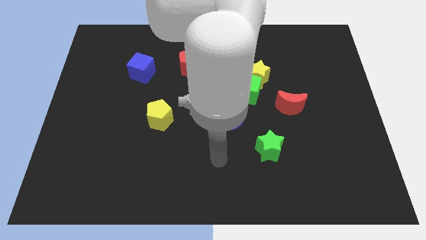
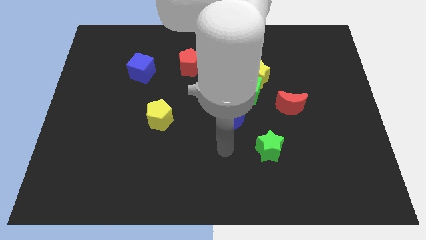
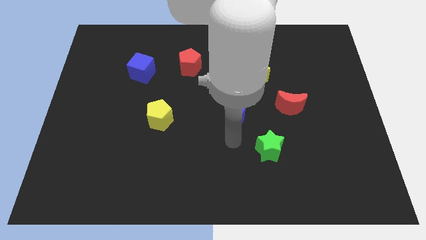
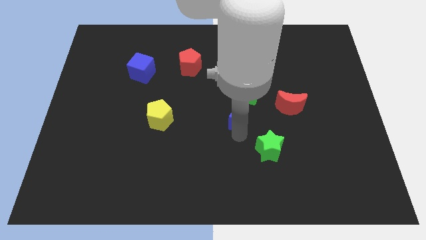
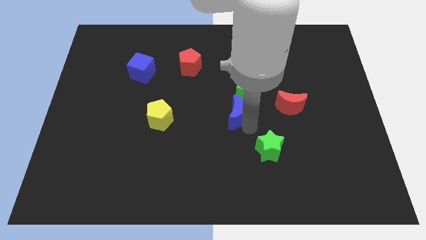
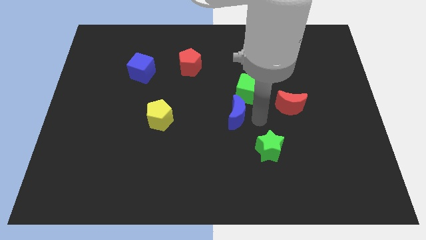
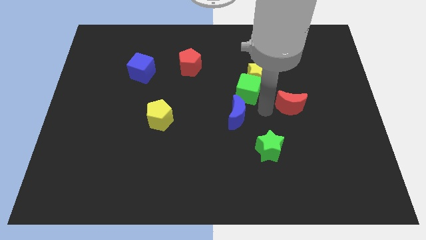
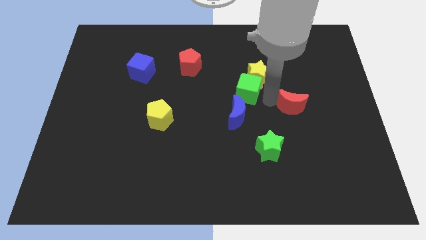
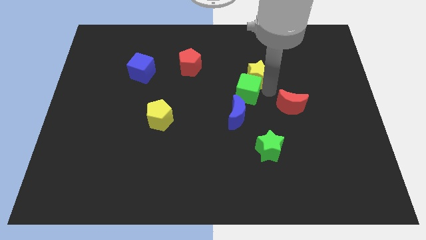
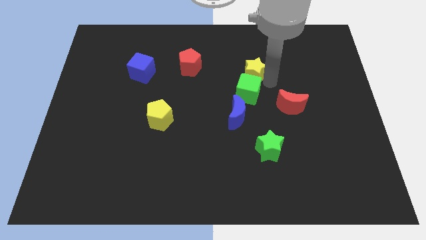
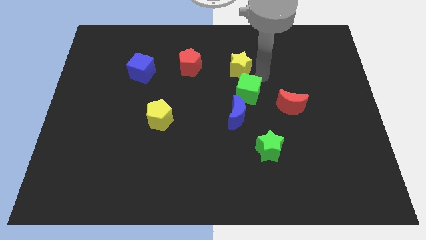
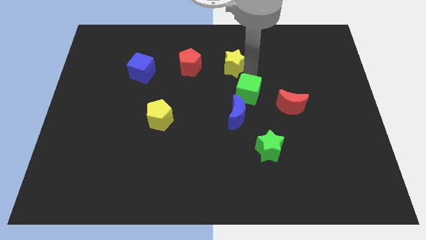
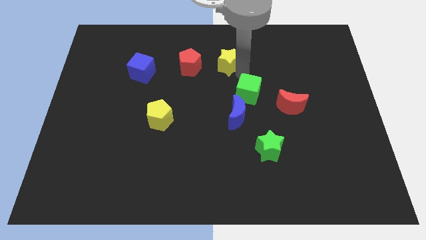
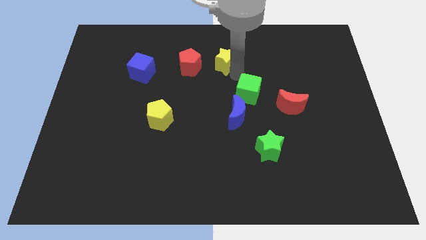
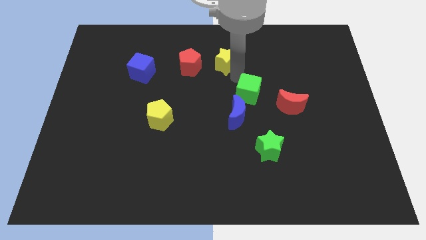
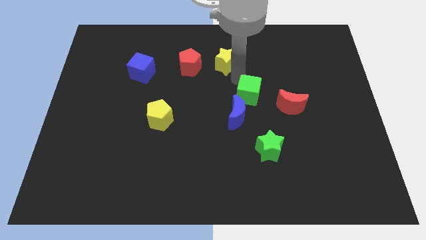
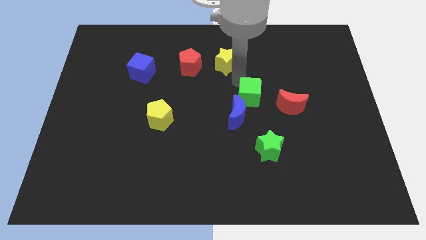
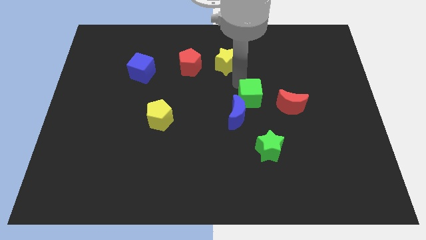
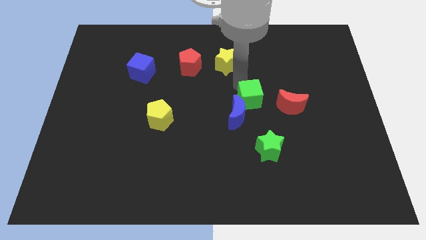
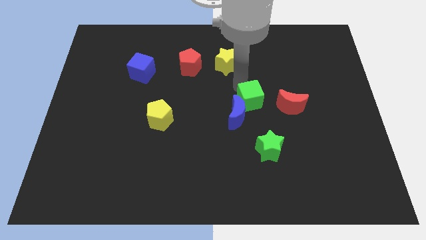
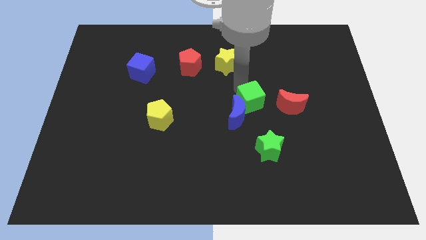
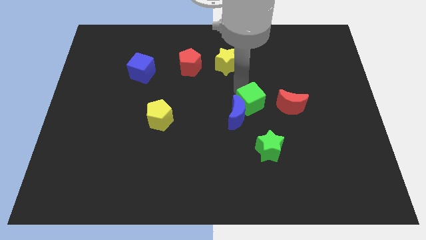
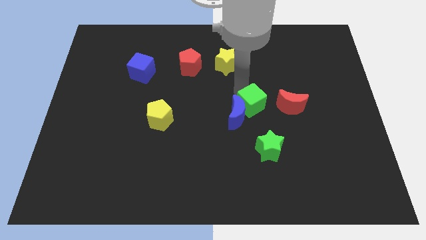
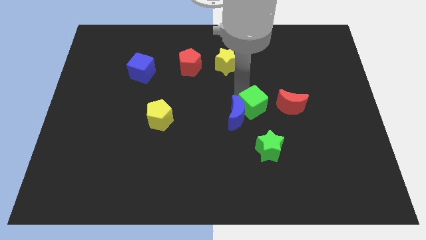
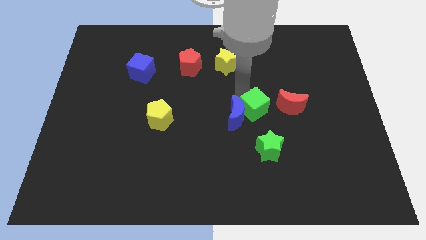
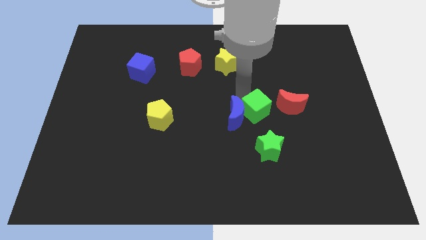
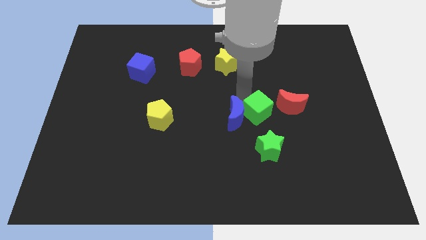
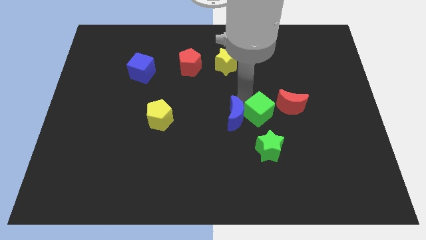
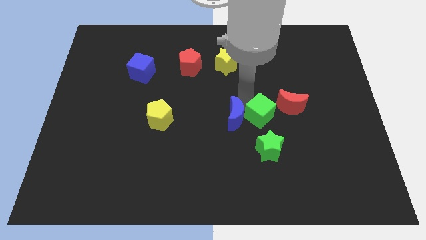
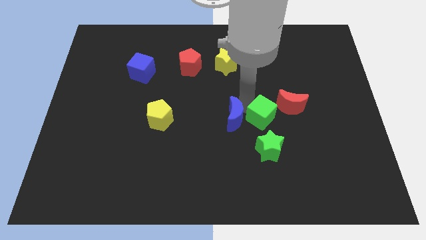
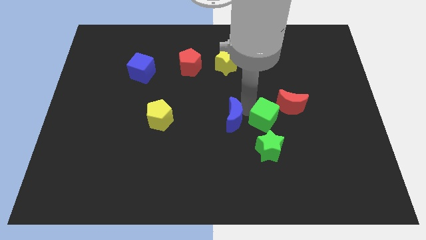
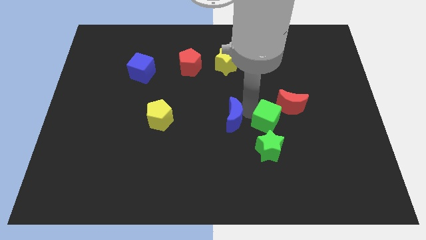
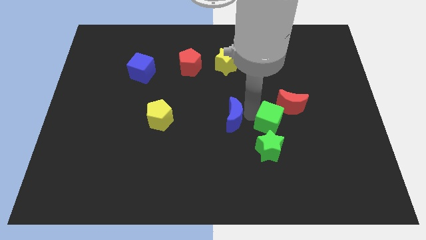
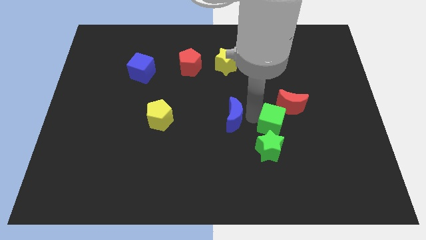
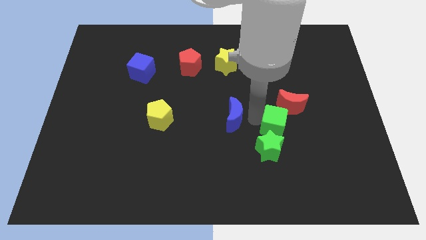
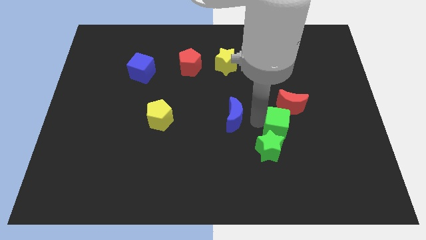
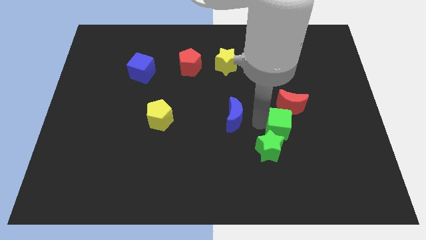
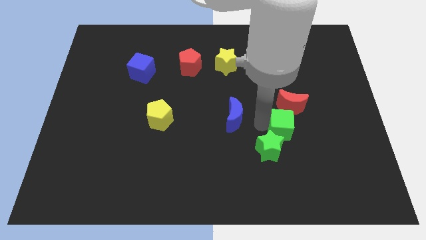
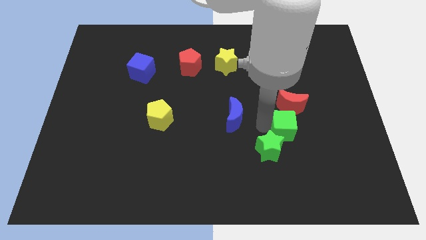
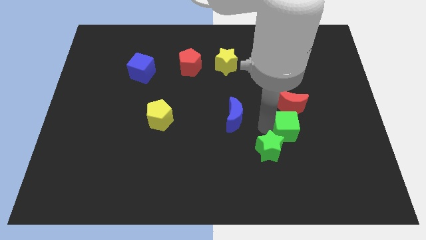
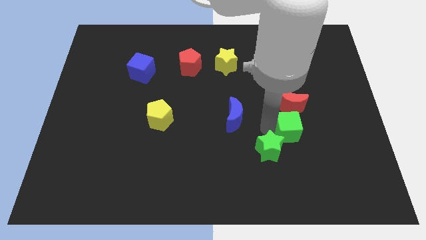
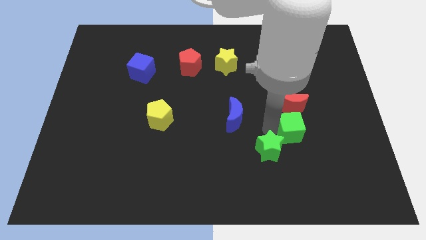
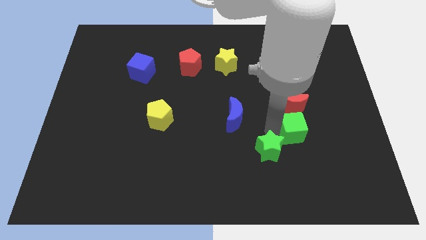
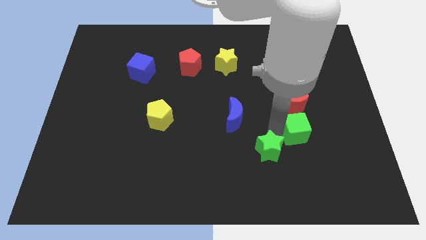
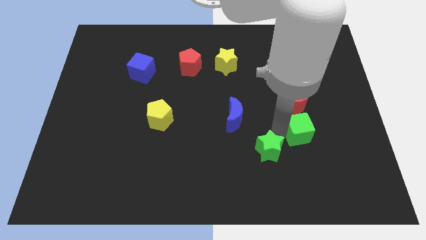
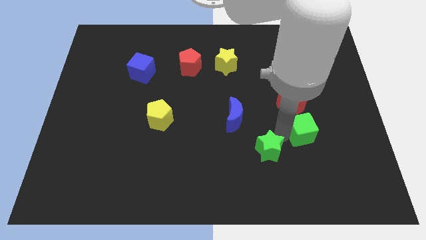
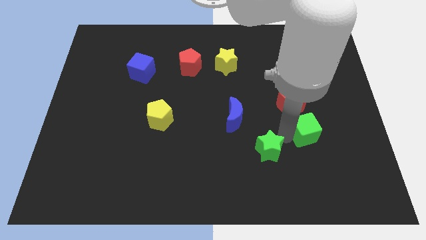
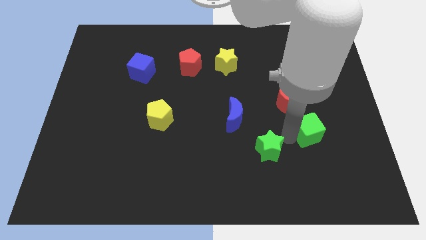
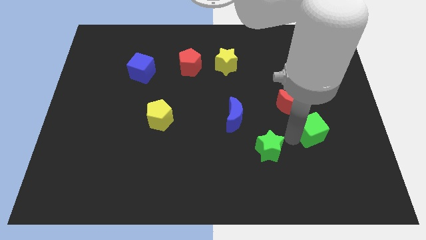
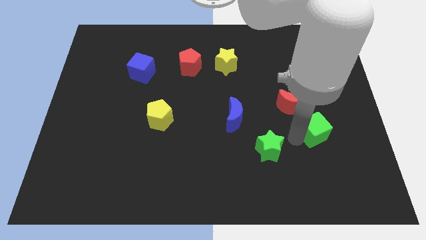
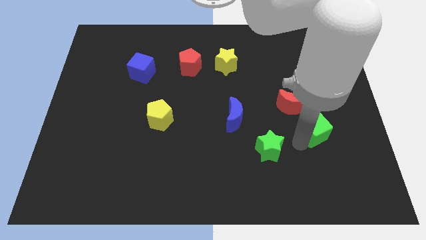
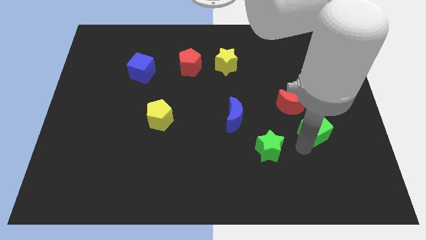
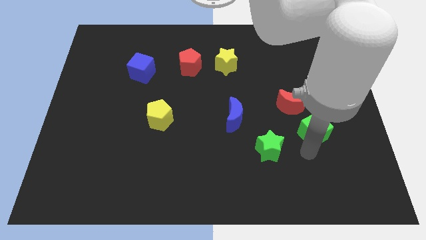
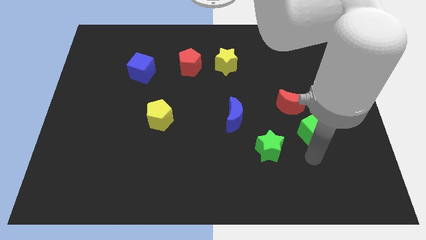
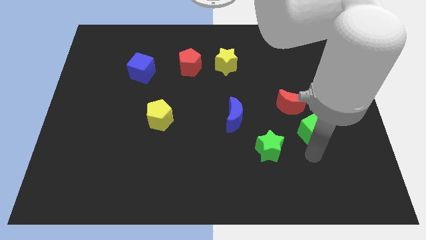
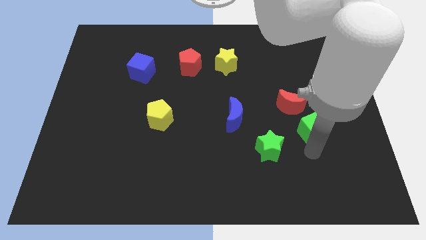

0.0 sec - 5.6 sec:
move the green cube a little to the right

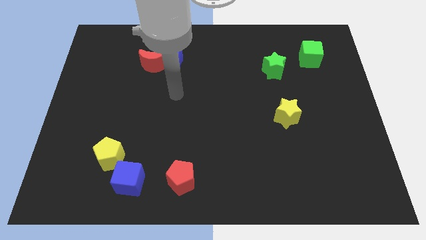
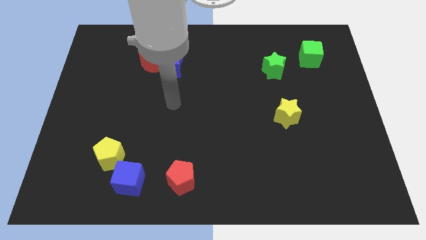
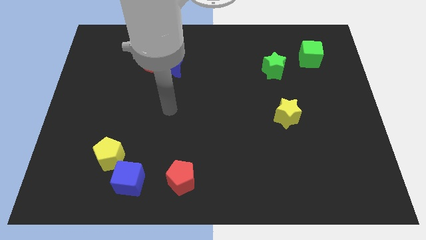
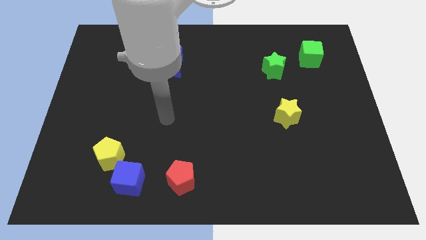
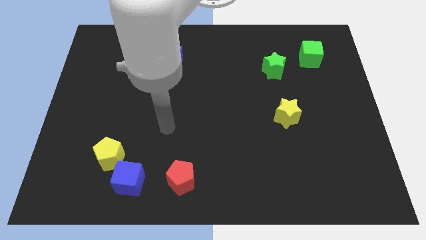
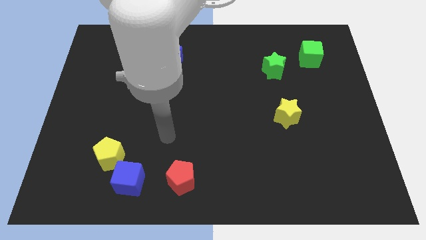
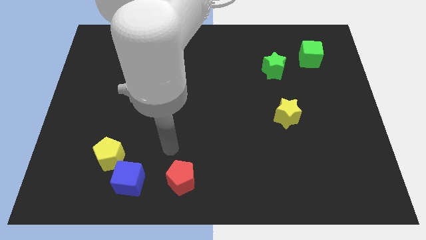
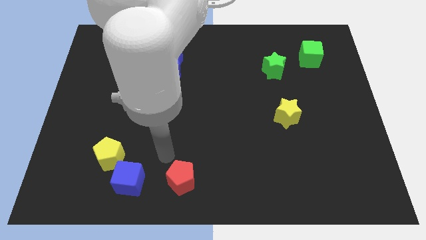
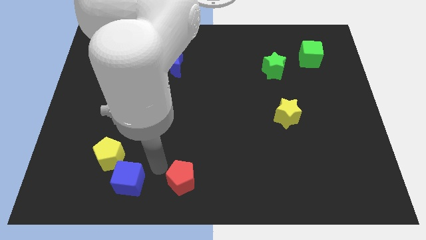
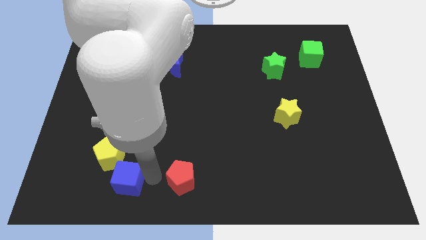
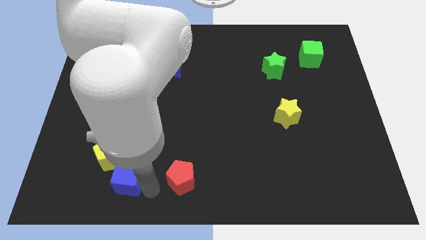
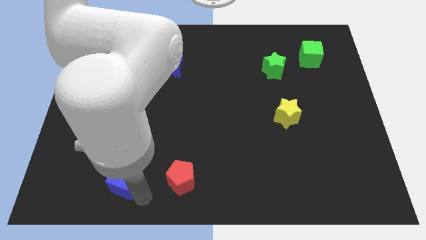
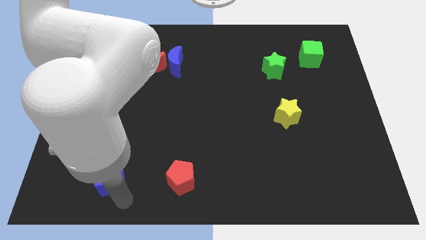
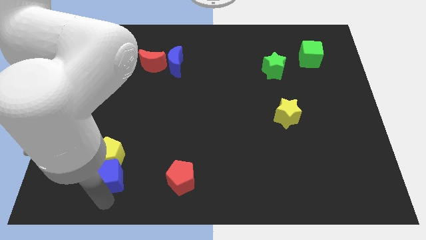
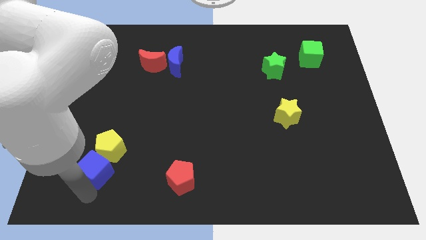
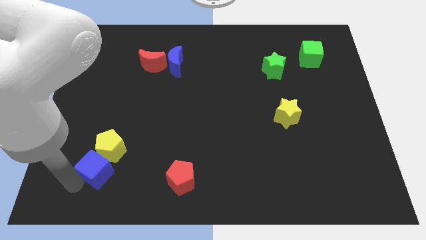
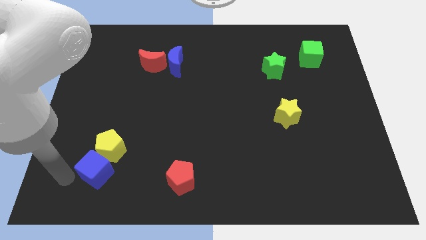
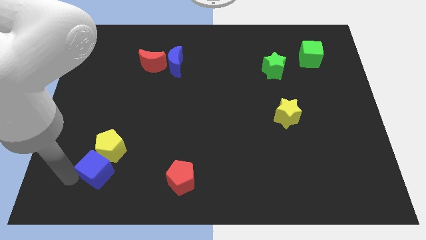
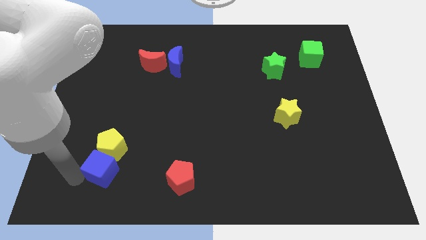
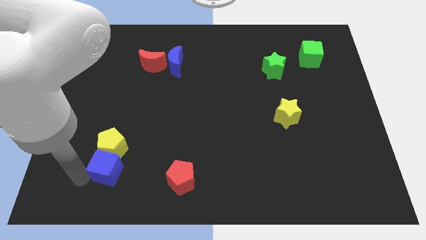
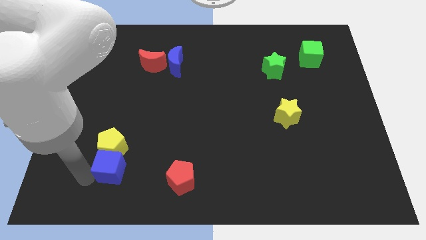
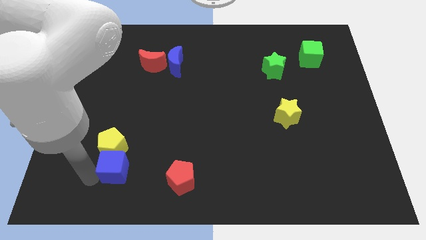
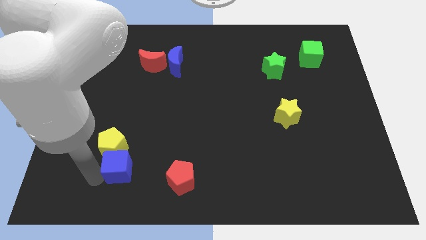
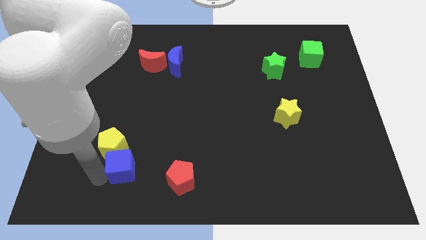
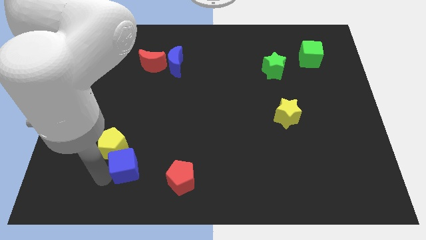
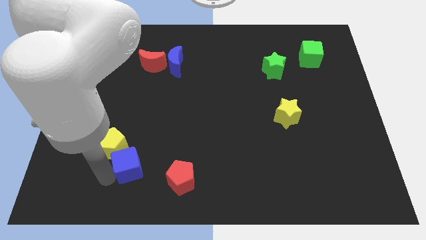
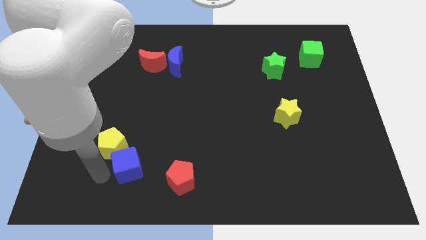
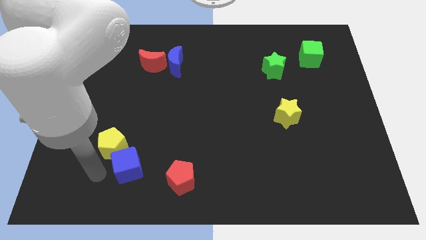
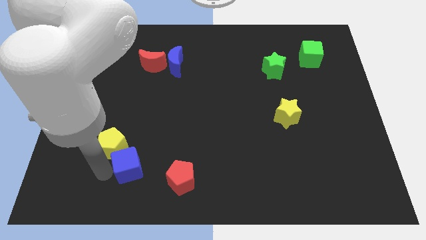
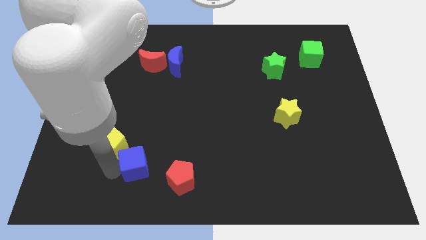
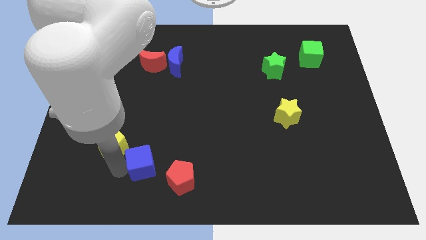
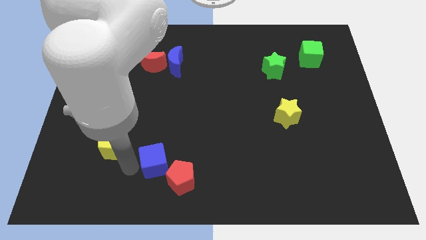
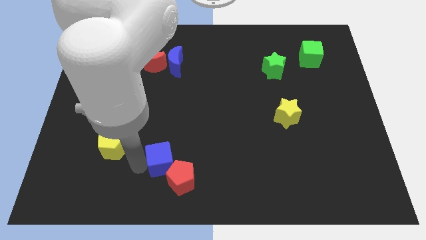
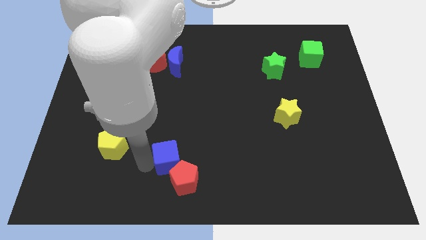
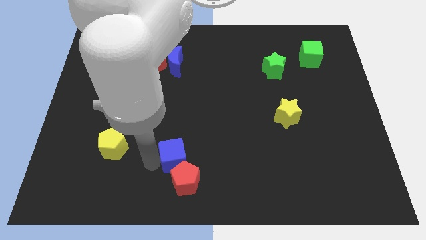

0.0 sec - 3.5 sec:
push the blue cube right slightly
